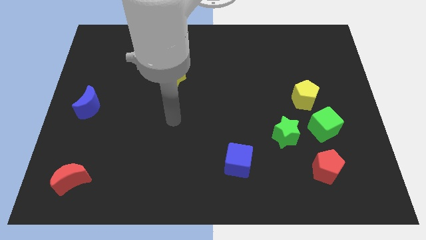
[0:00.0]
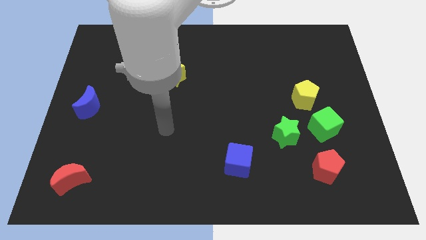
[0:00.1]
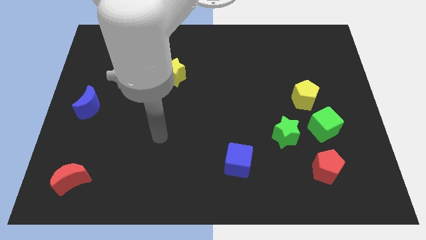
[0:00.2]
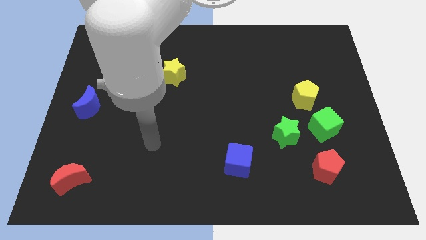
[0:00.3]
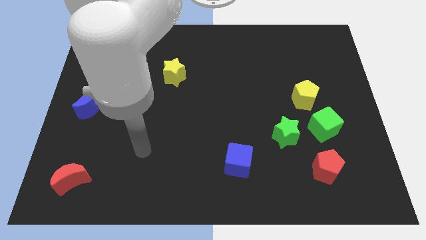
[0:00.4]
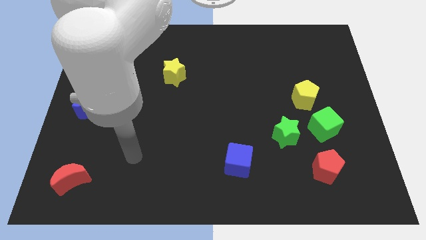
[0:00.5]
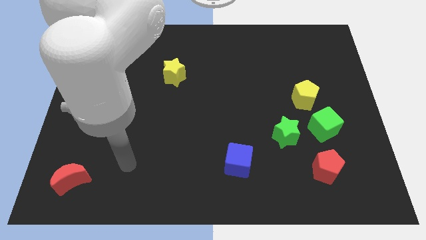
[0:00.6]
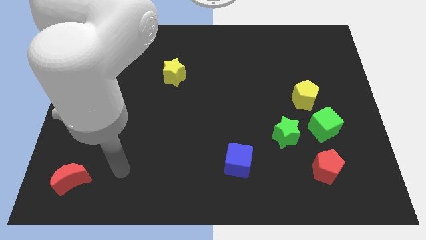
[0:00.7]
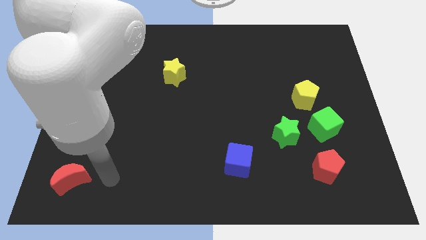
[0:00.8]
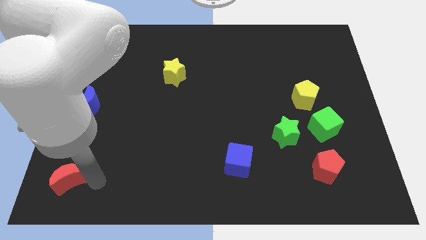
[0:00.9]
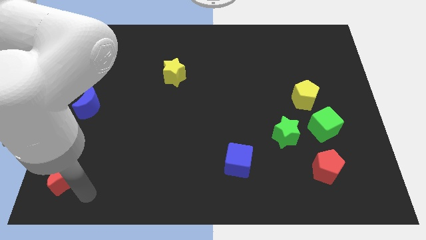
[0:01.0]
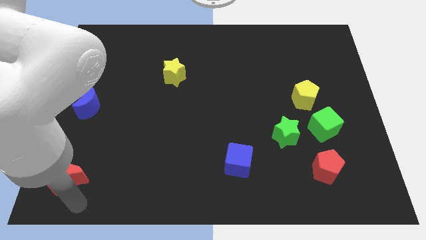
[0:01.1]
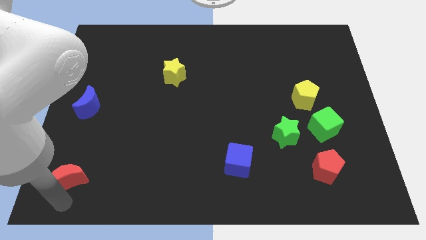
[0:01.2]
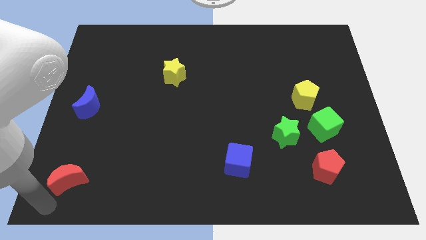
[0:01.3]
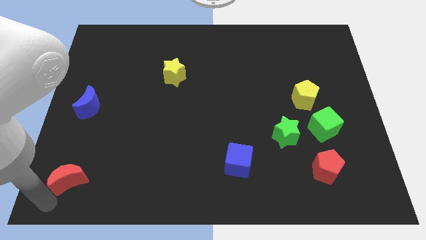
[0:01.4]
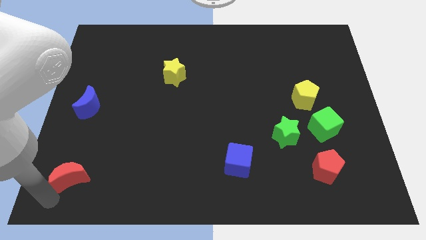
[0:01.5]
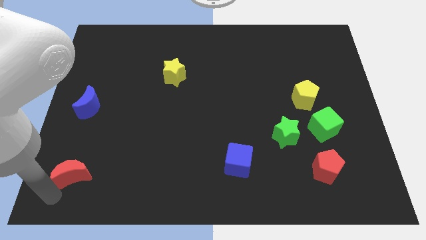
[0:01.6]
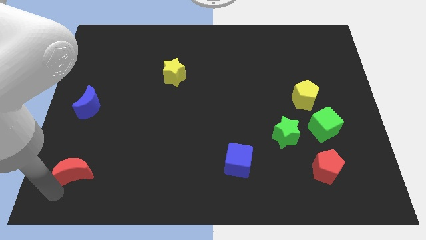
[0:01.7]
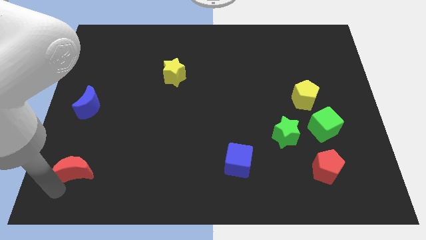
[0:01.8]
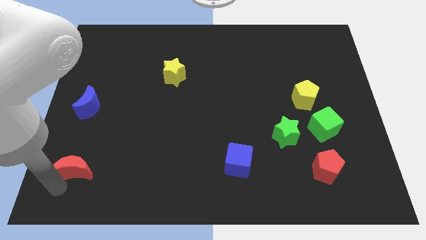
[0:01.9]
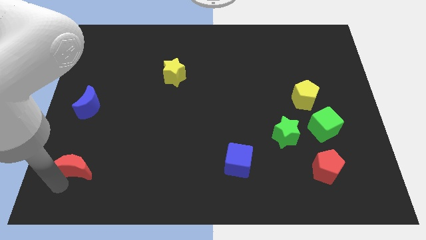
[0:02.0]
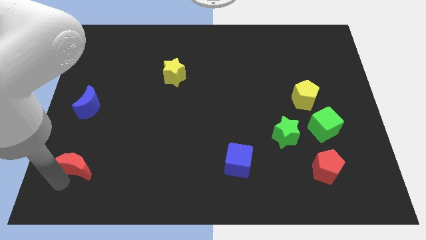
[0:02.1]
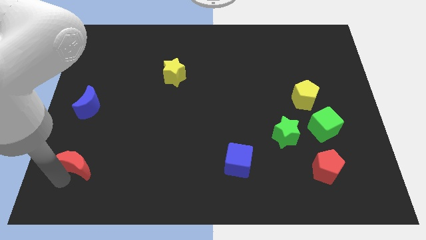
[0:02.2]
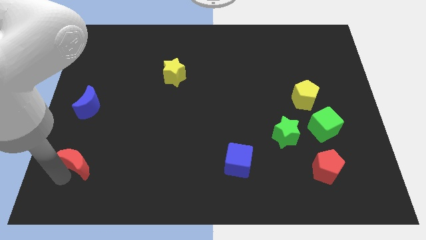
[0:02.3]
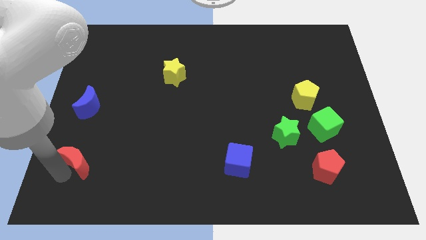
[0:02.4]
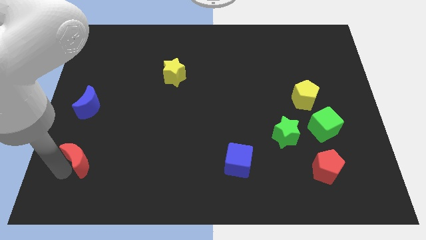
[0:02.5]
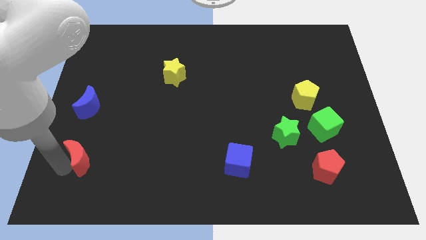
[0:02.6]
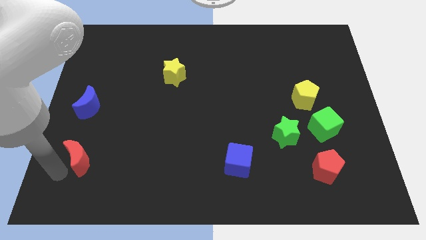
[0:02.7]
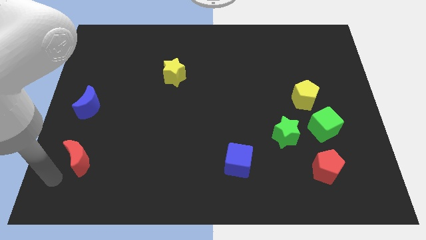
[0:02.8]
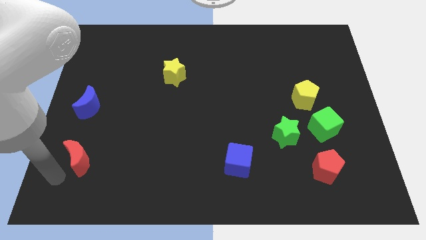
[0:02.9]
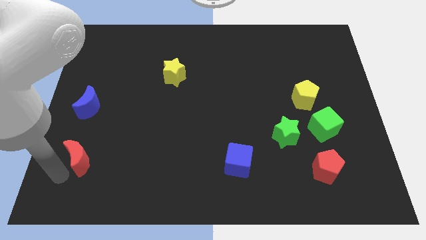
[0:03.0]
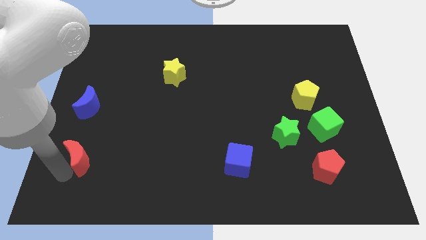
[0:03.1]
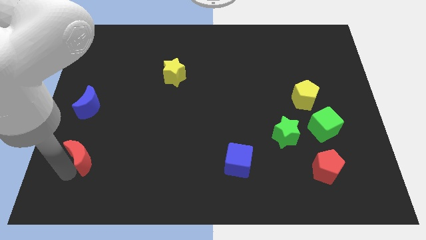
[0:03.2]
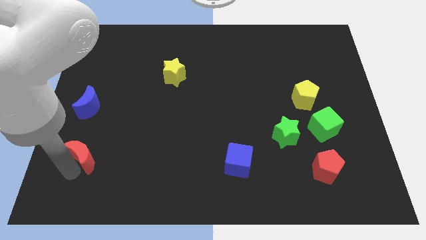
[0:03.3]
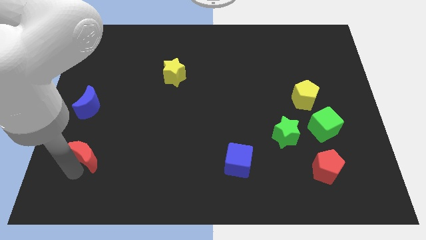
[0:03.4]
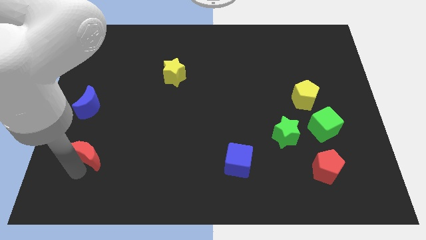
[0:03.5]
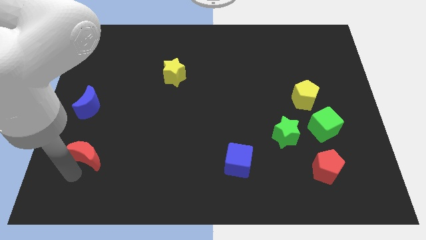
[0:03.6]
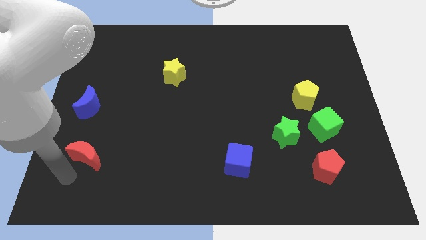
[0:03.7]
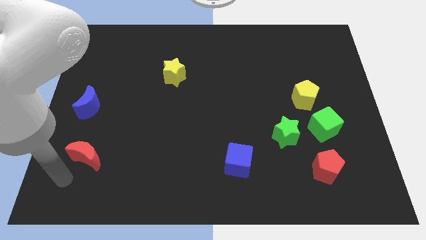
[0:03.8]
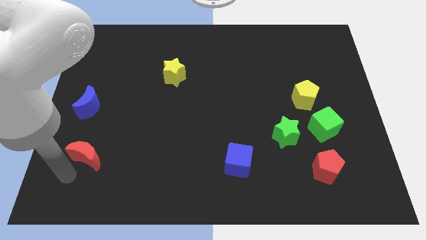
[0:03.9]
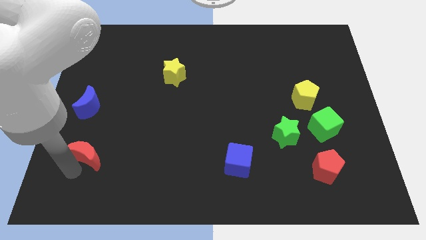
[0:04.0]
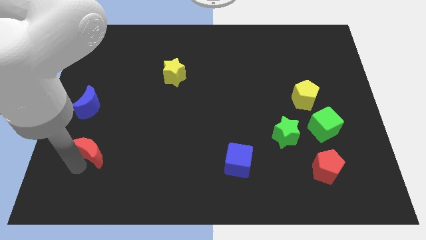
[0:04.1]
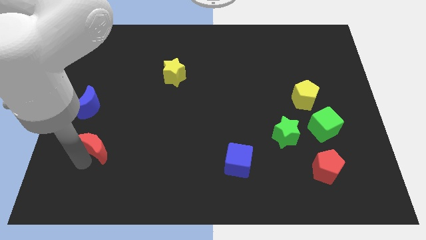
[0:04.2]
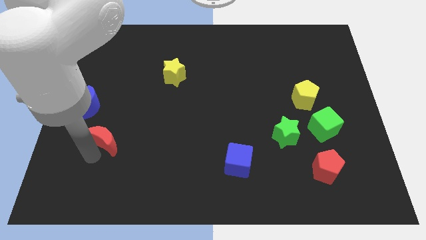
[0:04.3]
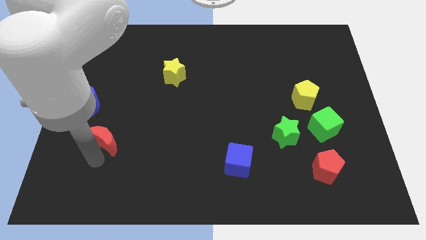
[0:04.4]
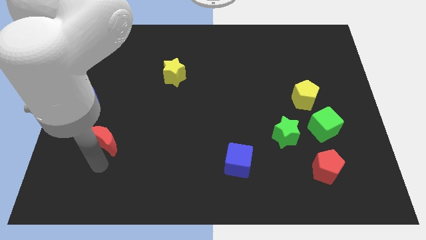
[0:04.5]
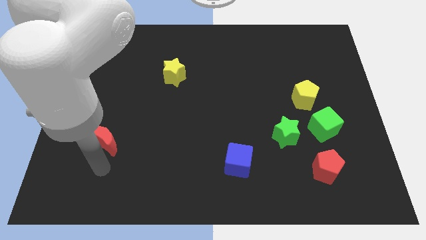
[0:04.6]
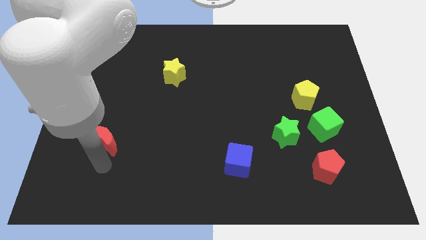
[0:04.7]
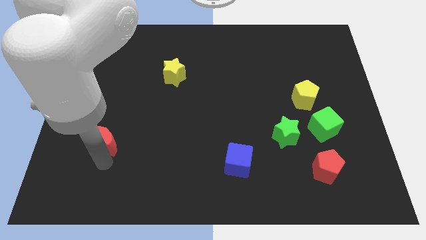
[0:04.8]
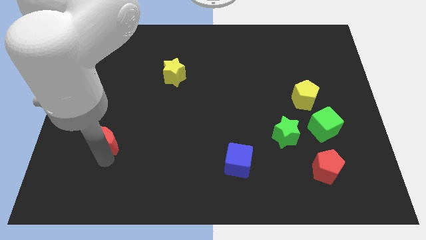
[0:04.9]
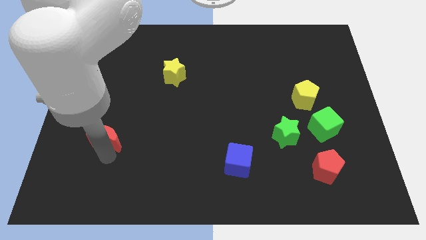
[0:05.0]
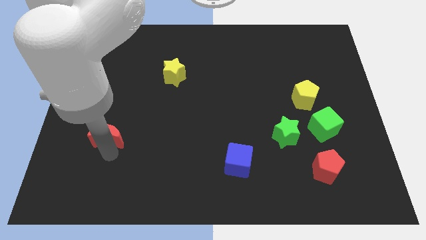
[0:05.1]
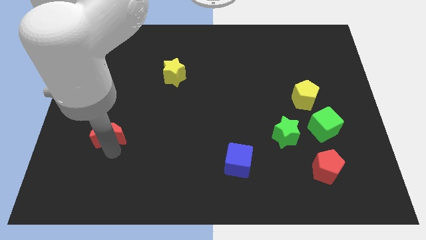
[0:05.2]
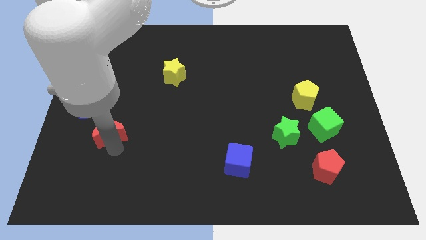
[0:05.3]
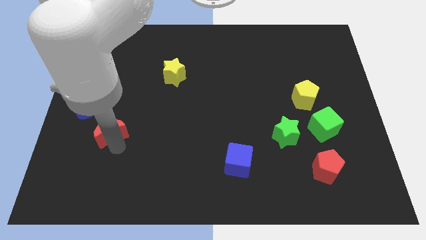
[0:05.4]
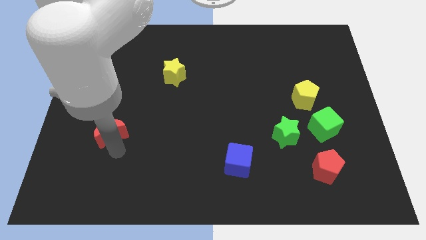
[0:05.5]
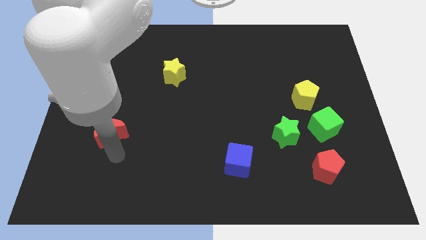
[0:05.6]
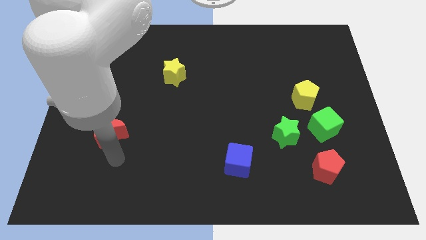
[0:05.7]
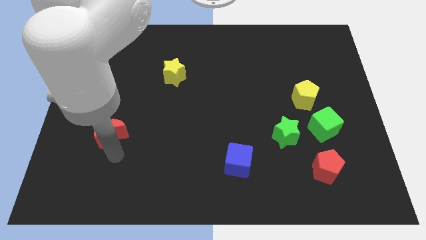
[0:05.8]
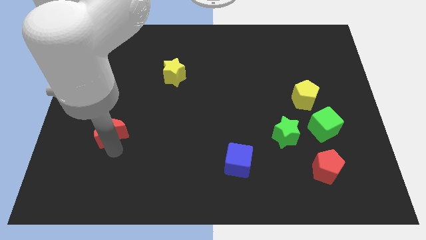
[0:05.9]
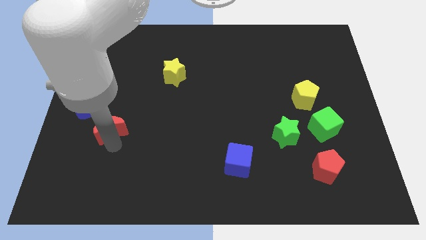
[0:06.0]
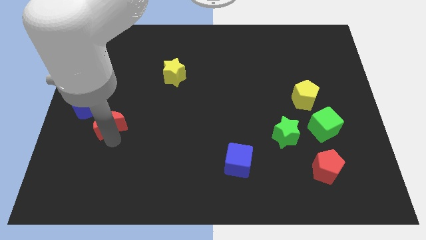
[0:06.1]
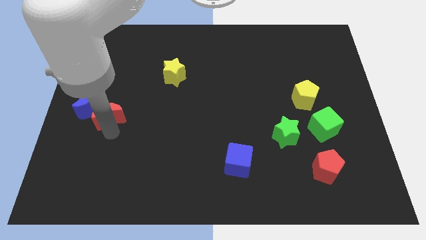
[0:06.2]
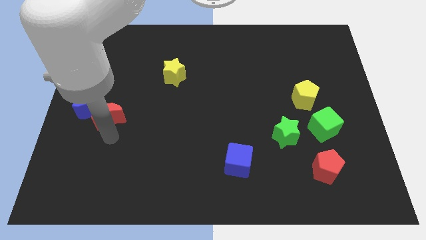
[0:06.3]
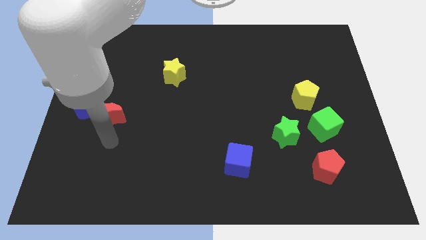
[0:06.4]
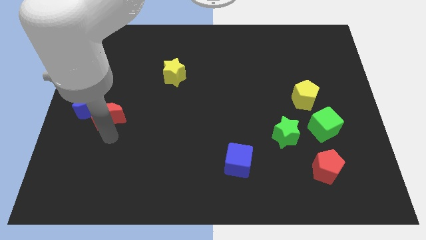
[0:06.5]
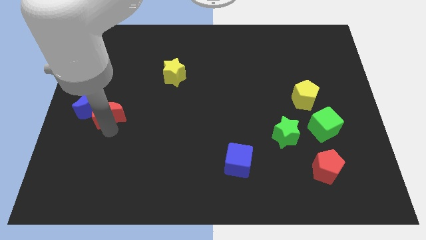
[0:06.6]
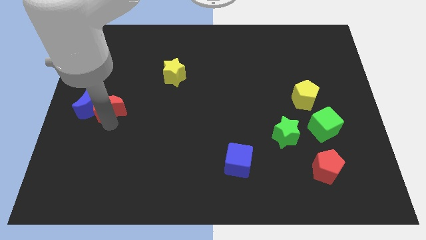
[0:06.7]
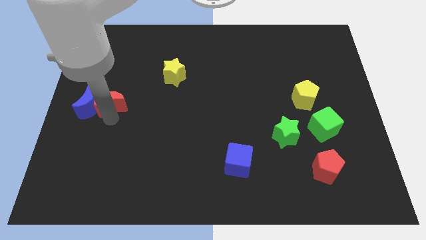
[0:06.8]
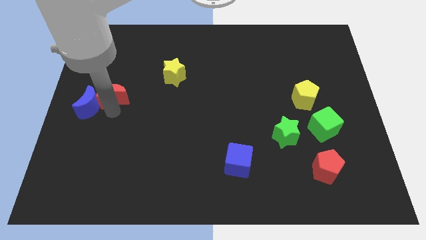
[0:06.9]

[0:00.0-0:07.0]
move the red moon up

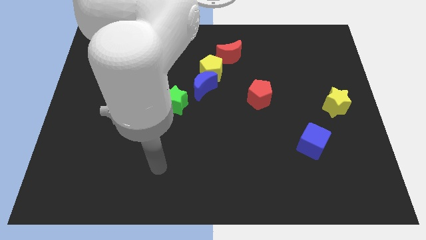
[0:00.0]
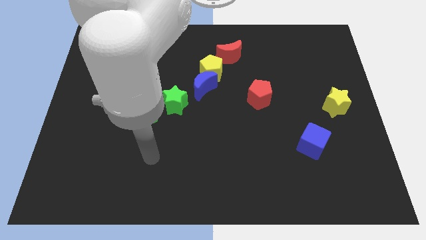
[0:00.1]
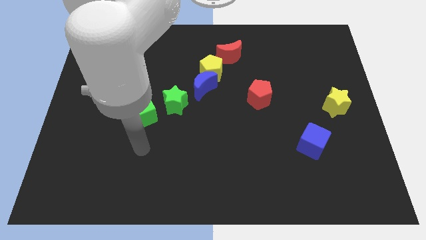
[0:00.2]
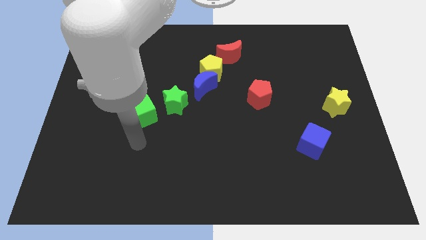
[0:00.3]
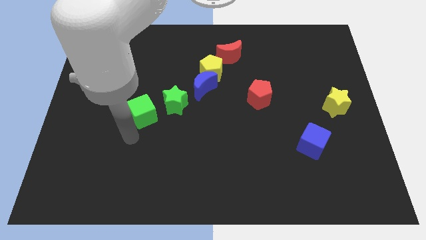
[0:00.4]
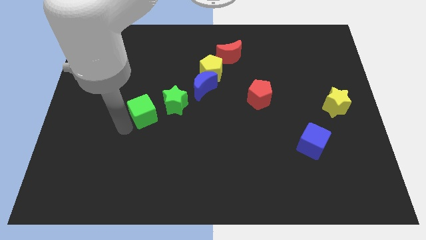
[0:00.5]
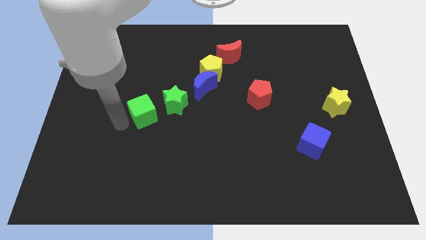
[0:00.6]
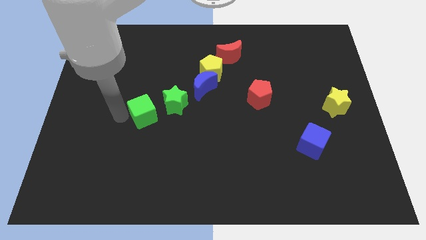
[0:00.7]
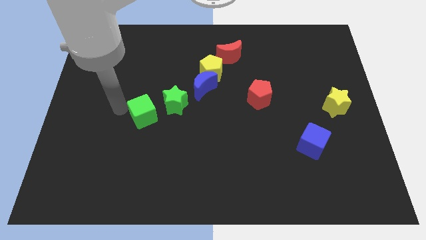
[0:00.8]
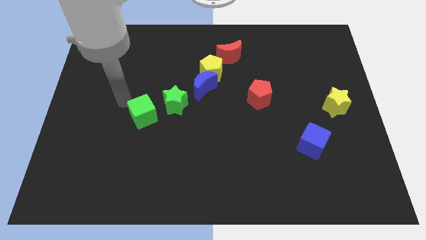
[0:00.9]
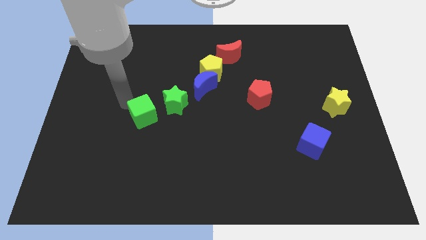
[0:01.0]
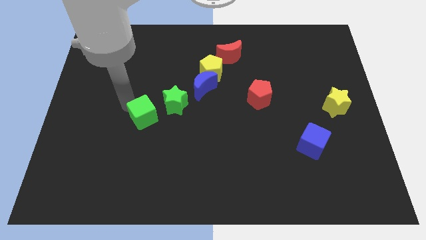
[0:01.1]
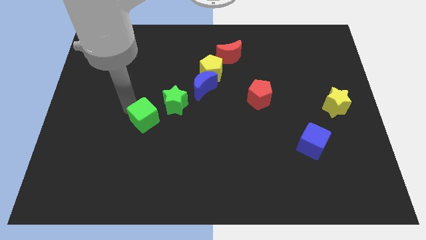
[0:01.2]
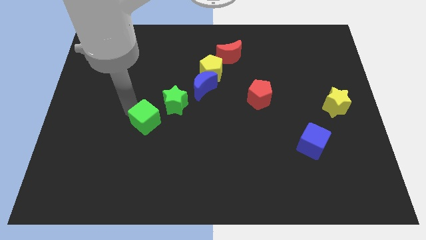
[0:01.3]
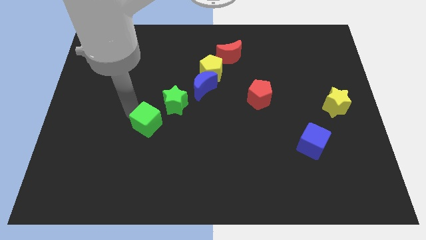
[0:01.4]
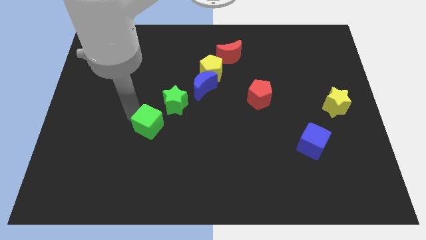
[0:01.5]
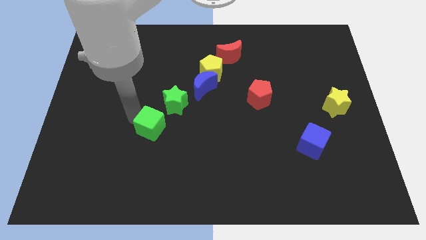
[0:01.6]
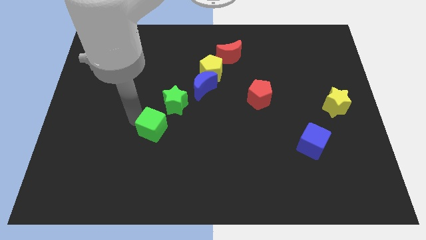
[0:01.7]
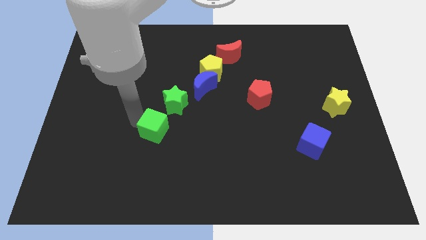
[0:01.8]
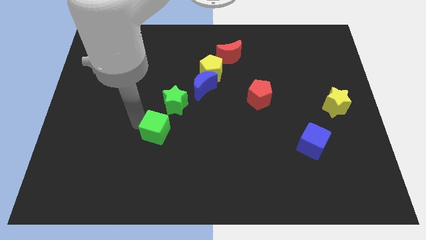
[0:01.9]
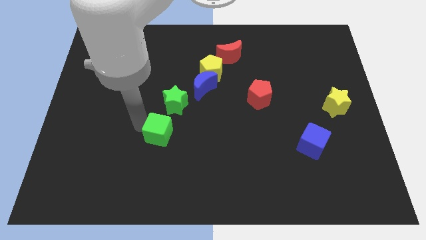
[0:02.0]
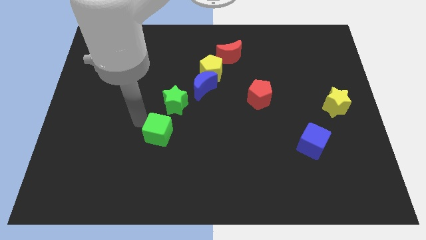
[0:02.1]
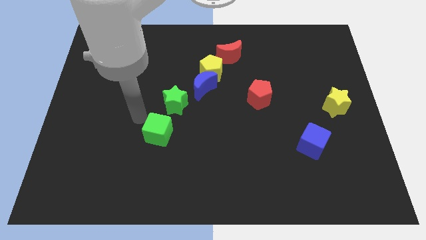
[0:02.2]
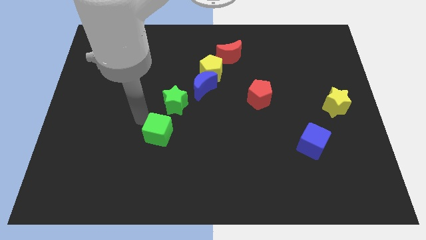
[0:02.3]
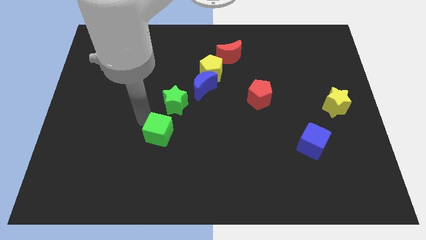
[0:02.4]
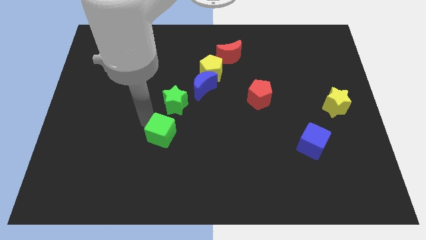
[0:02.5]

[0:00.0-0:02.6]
move the green cube a bit diagonally downwards and right
